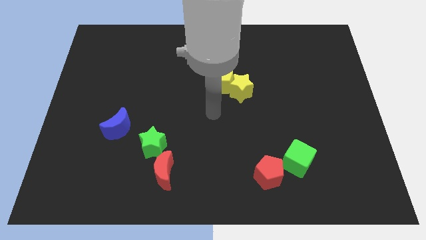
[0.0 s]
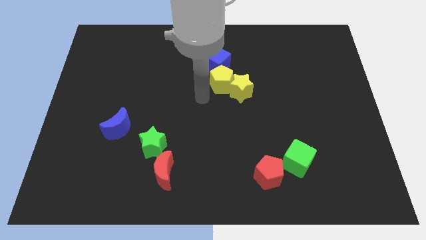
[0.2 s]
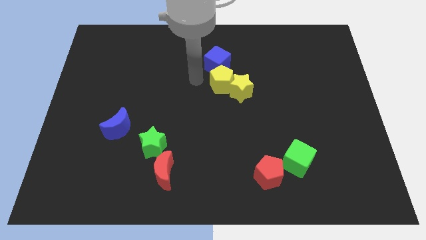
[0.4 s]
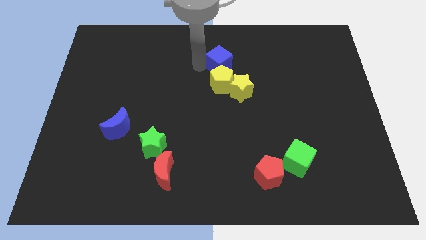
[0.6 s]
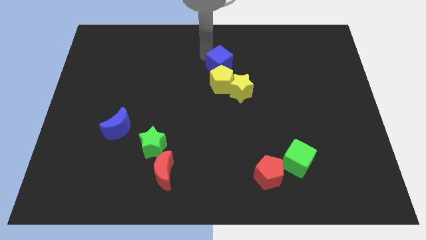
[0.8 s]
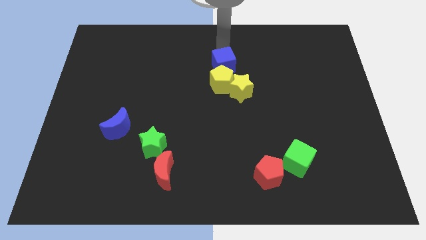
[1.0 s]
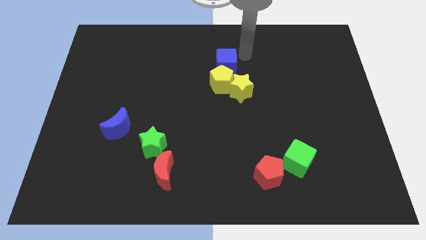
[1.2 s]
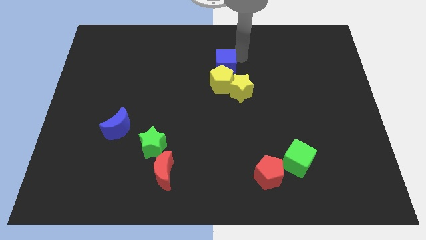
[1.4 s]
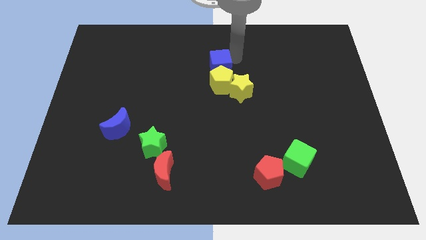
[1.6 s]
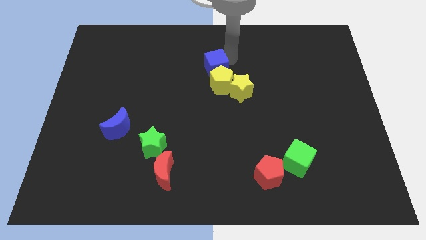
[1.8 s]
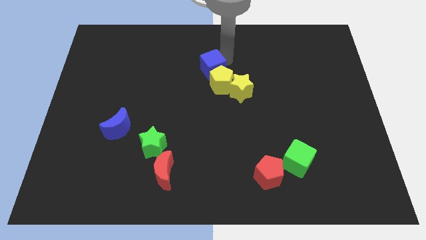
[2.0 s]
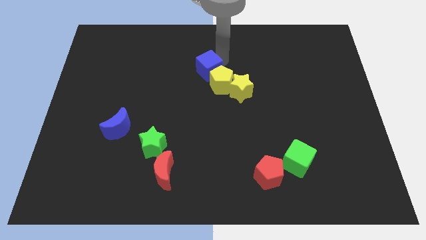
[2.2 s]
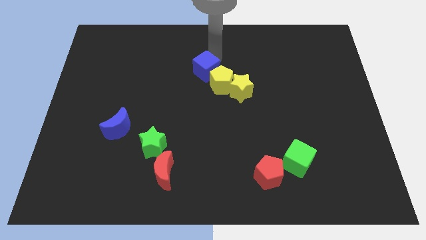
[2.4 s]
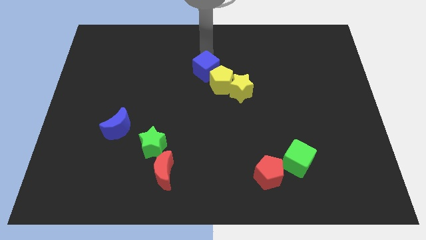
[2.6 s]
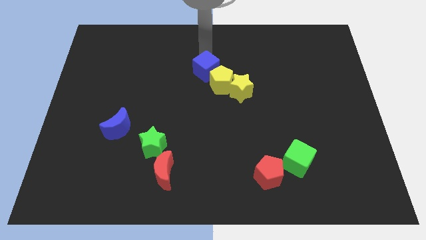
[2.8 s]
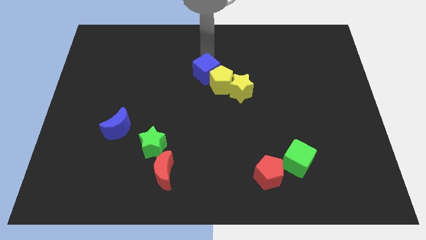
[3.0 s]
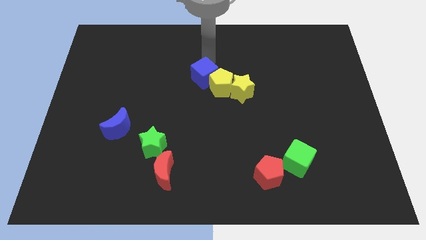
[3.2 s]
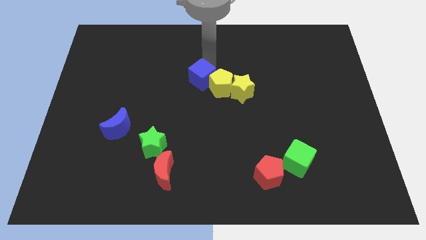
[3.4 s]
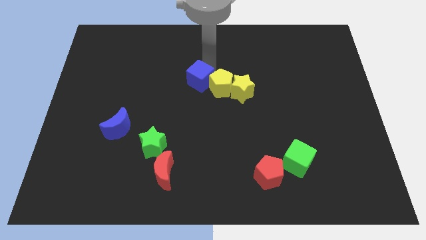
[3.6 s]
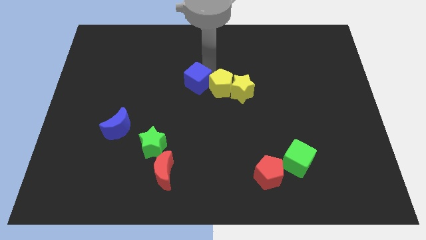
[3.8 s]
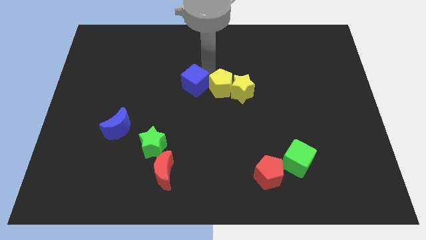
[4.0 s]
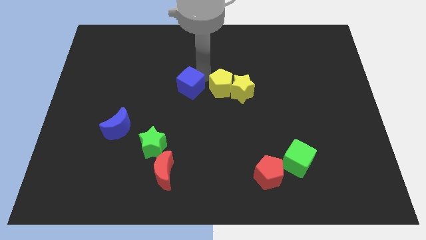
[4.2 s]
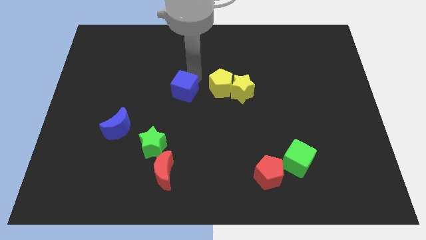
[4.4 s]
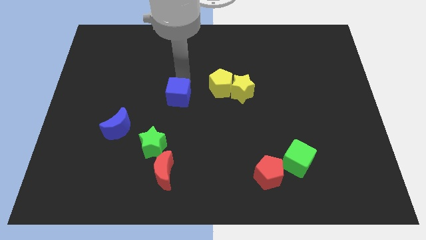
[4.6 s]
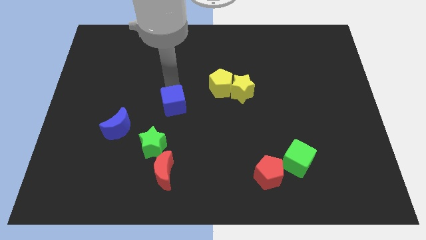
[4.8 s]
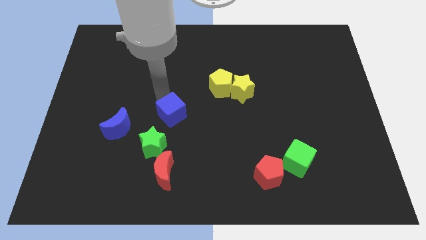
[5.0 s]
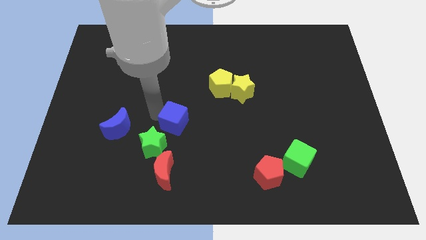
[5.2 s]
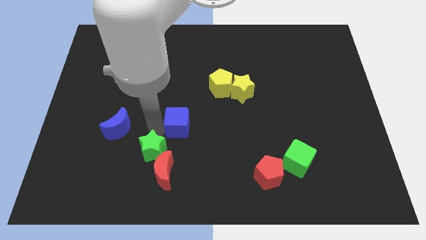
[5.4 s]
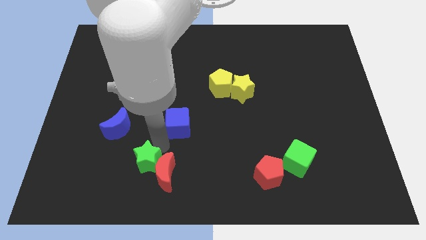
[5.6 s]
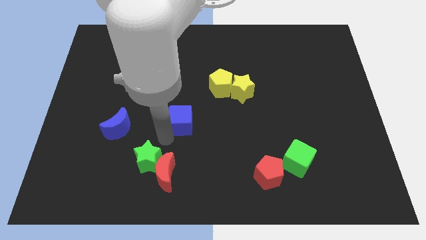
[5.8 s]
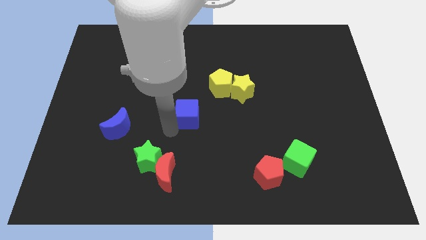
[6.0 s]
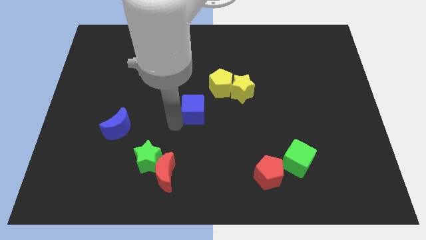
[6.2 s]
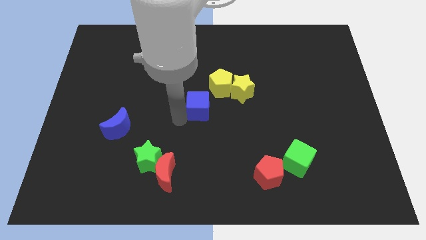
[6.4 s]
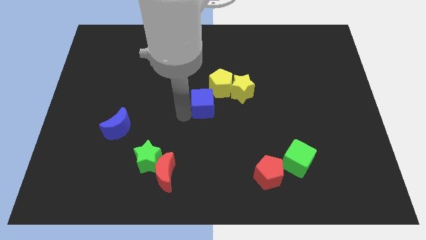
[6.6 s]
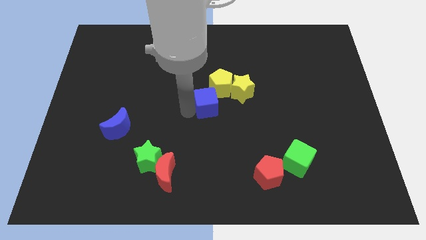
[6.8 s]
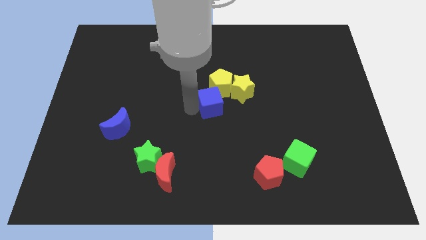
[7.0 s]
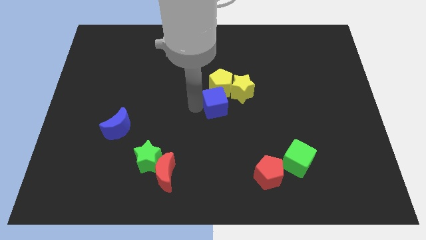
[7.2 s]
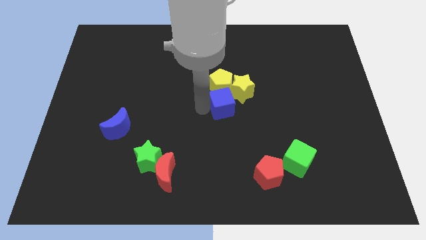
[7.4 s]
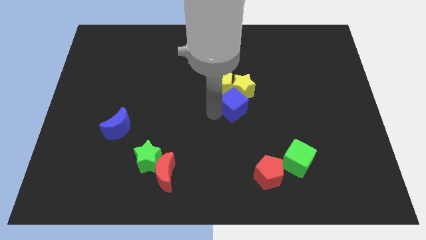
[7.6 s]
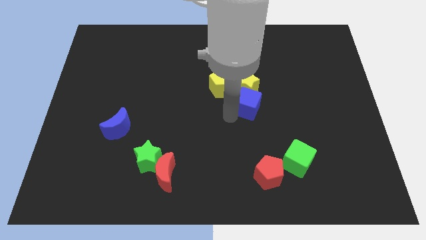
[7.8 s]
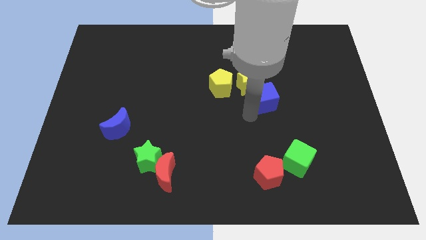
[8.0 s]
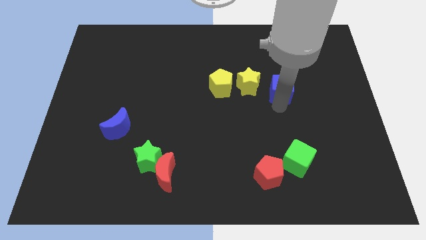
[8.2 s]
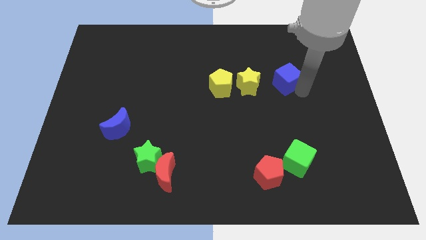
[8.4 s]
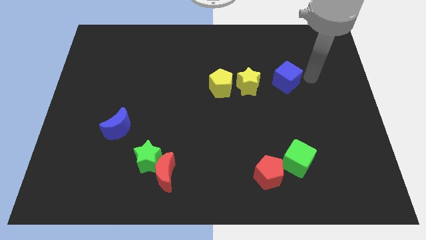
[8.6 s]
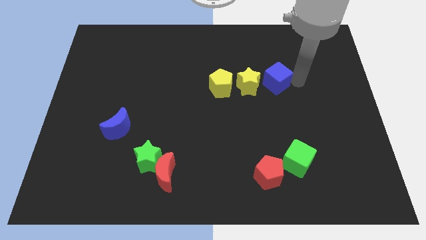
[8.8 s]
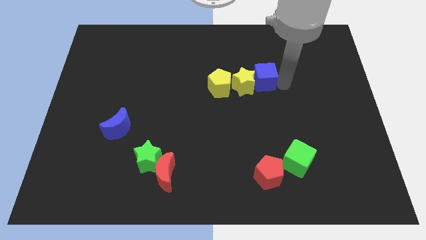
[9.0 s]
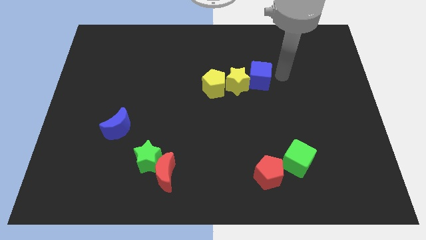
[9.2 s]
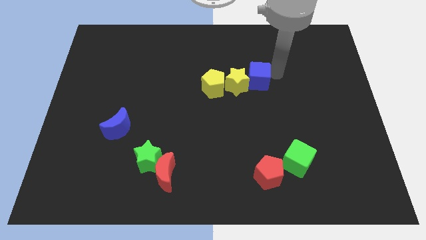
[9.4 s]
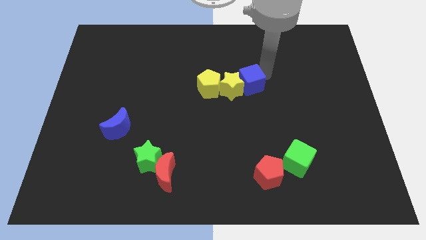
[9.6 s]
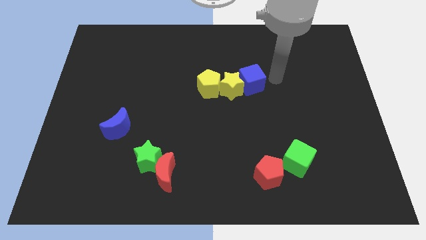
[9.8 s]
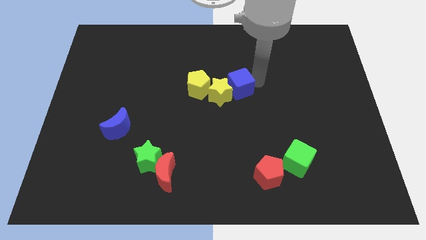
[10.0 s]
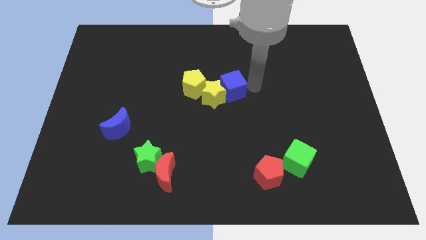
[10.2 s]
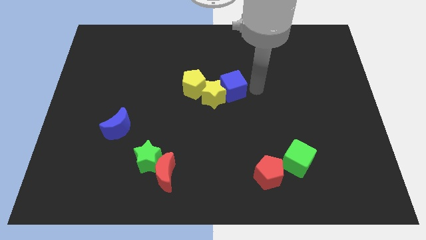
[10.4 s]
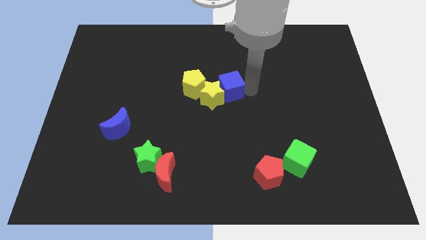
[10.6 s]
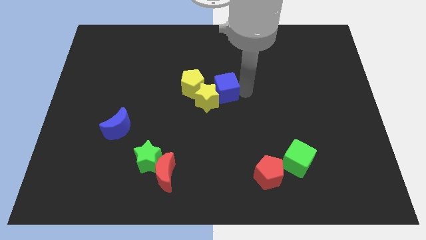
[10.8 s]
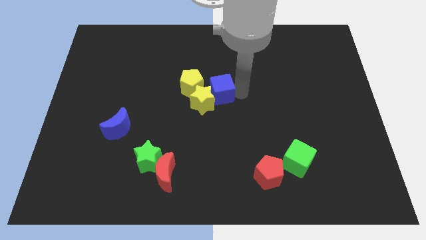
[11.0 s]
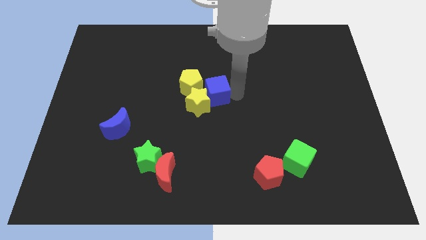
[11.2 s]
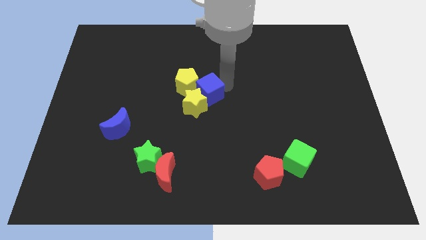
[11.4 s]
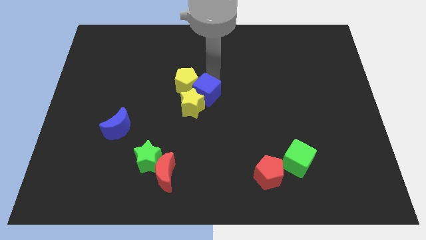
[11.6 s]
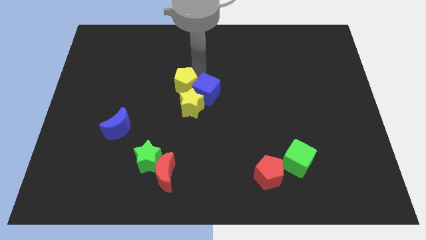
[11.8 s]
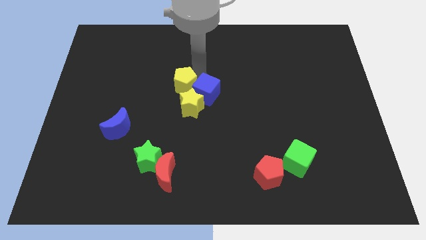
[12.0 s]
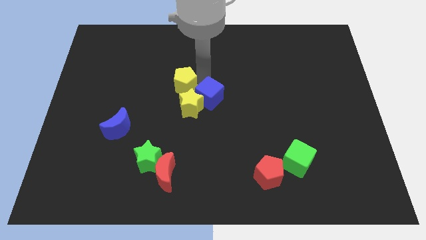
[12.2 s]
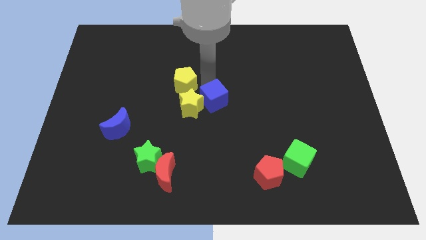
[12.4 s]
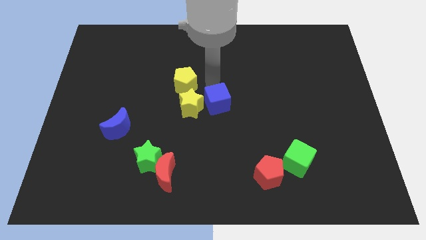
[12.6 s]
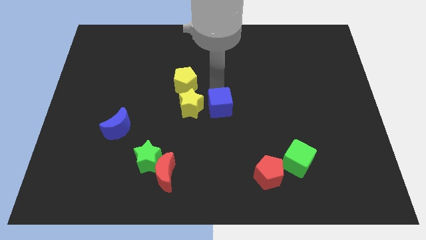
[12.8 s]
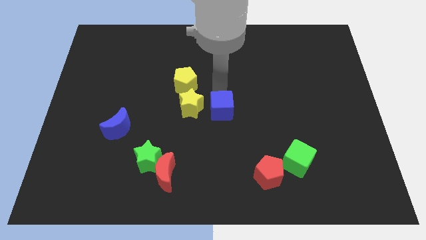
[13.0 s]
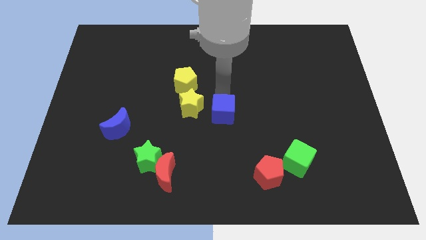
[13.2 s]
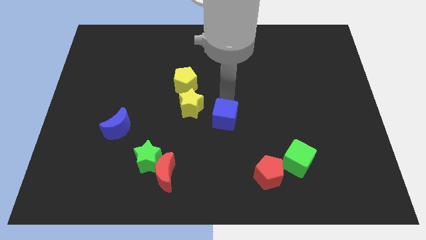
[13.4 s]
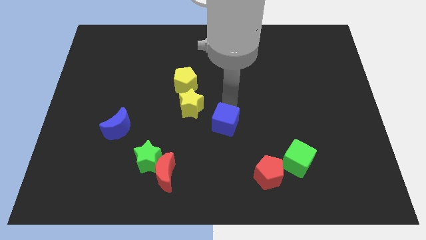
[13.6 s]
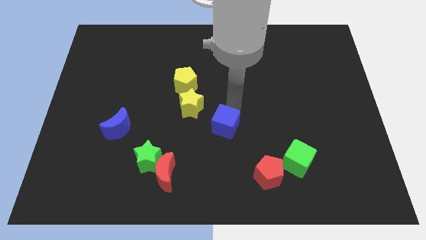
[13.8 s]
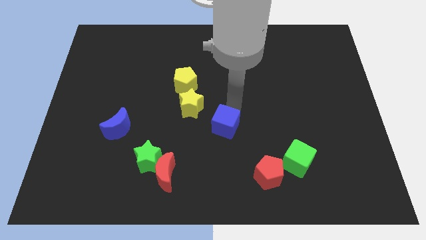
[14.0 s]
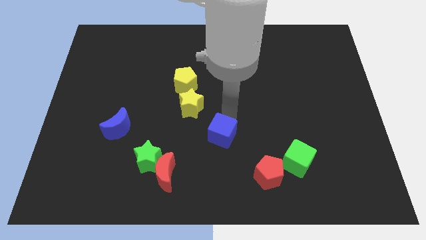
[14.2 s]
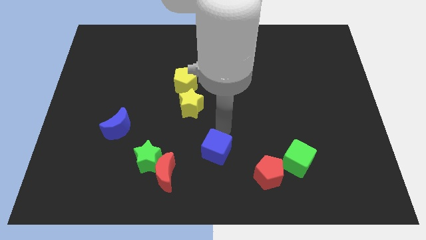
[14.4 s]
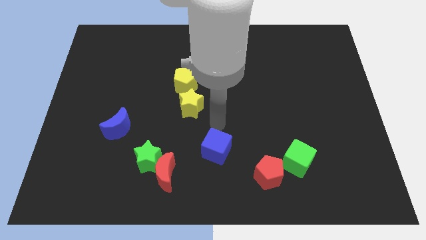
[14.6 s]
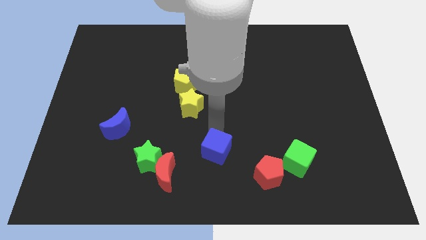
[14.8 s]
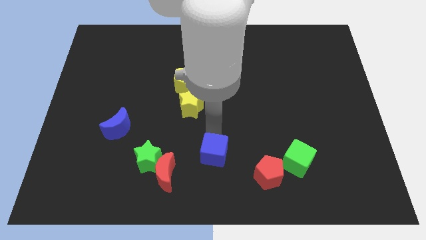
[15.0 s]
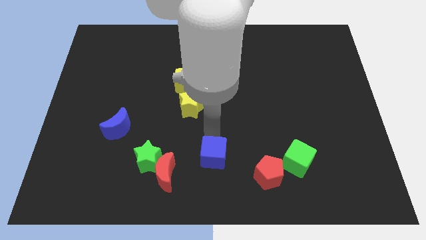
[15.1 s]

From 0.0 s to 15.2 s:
move the blue cube to the right side of the red moon
